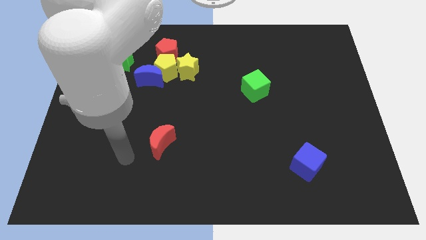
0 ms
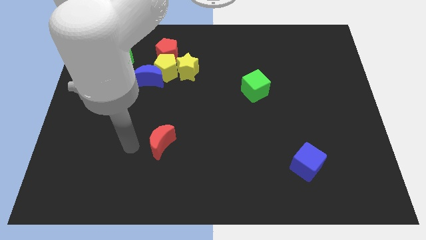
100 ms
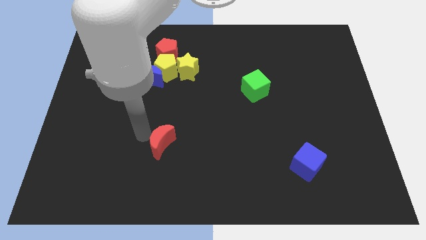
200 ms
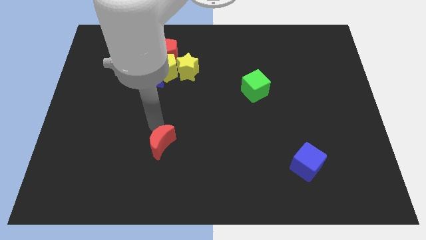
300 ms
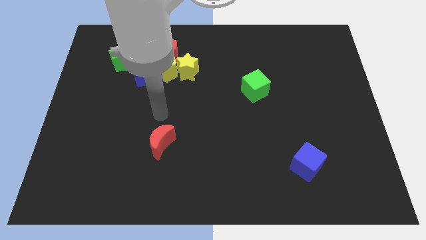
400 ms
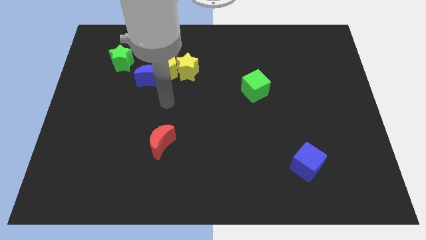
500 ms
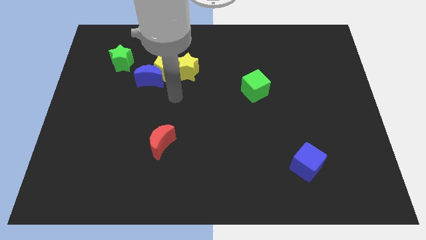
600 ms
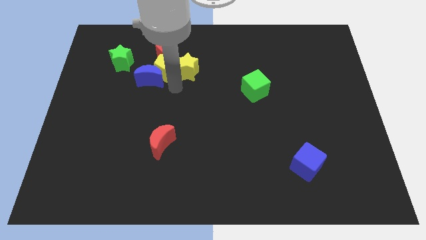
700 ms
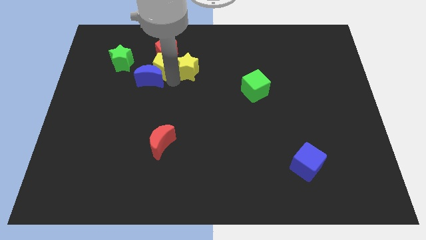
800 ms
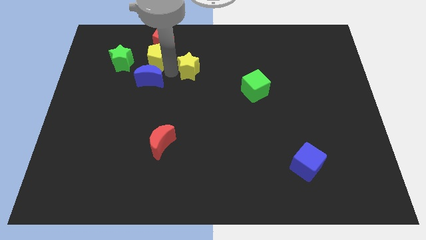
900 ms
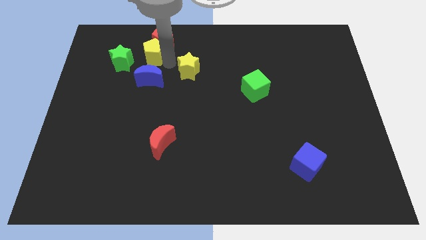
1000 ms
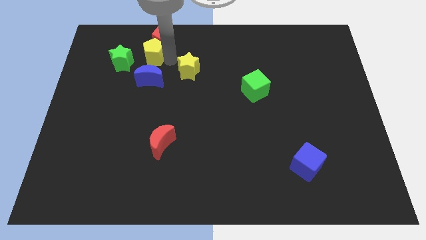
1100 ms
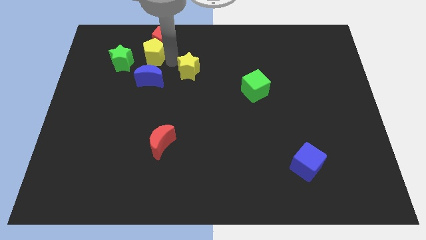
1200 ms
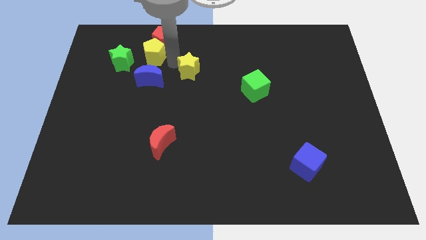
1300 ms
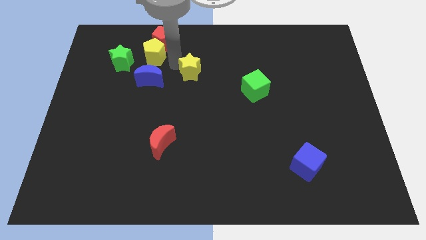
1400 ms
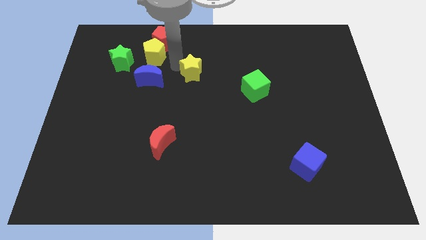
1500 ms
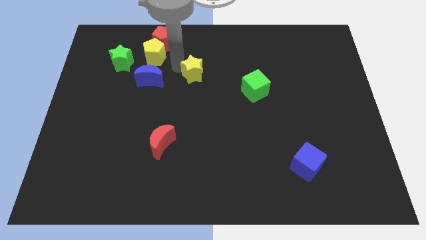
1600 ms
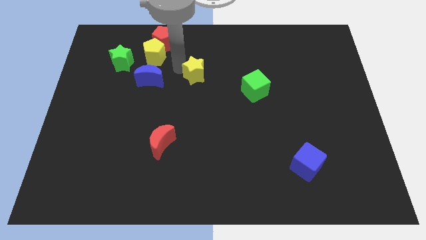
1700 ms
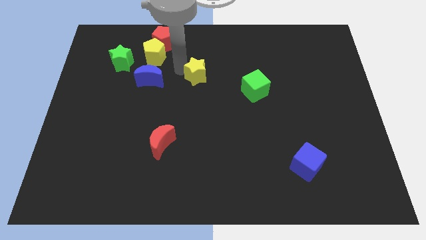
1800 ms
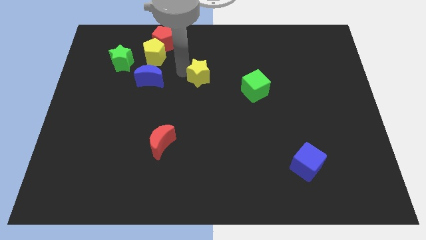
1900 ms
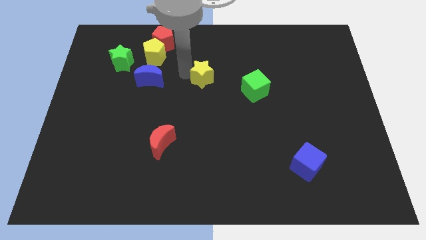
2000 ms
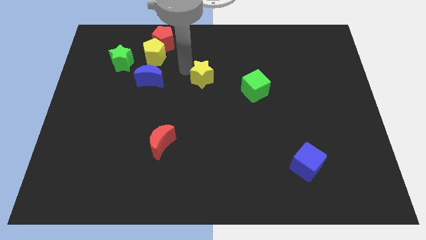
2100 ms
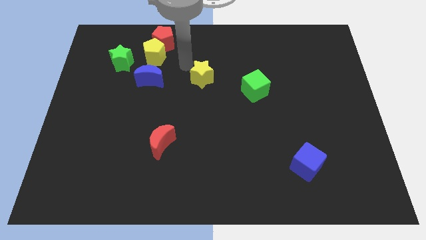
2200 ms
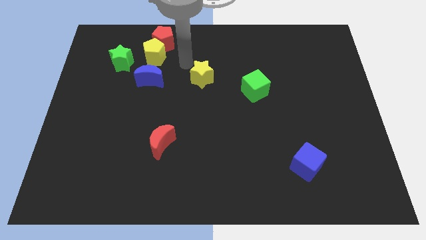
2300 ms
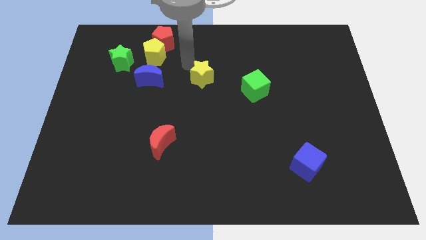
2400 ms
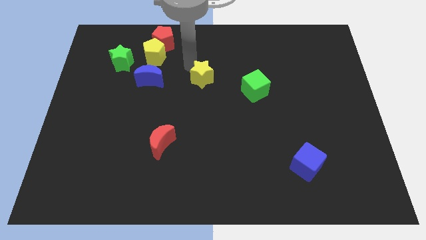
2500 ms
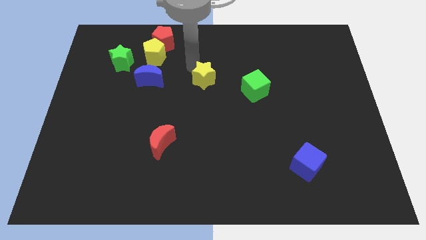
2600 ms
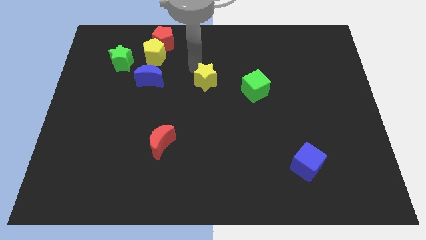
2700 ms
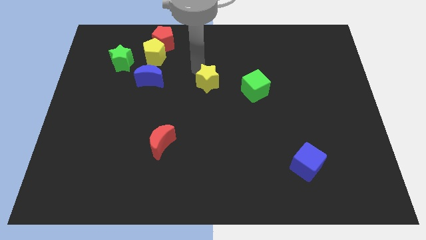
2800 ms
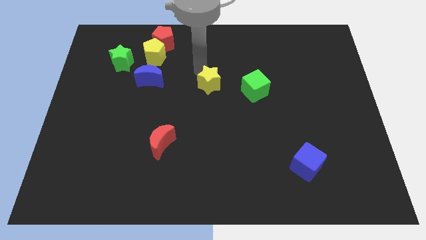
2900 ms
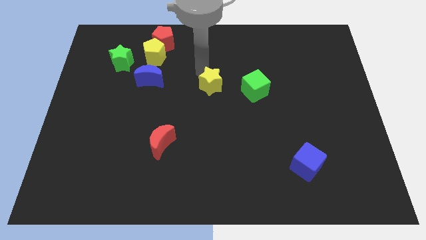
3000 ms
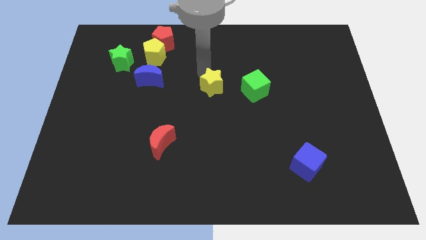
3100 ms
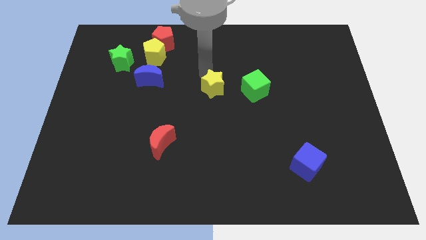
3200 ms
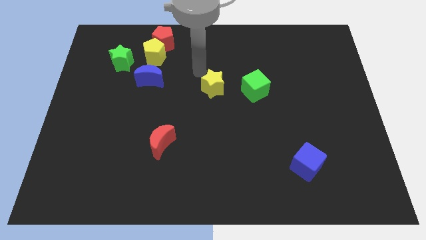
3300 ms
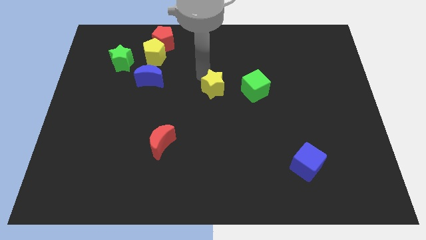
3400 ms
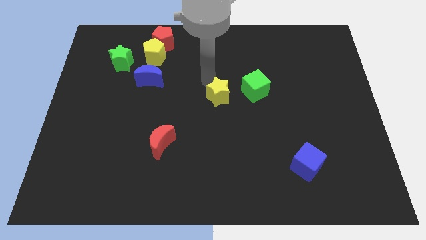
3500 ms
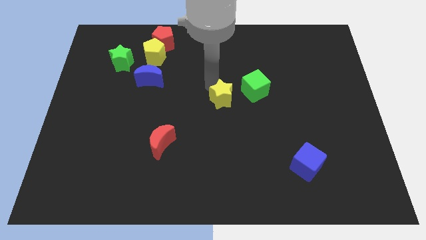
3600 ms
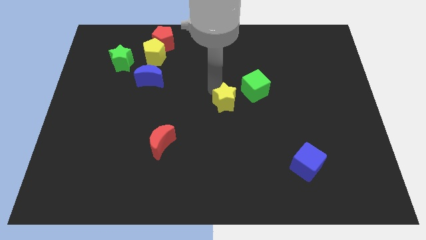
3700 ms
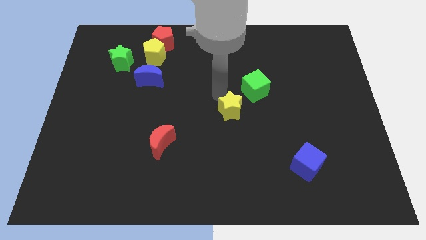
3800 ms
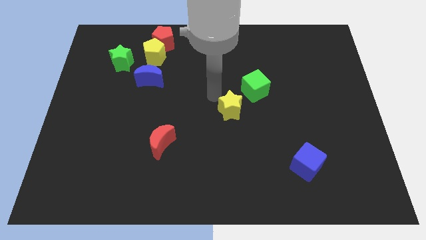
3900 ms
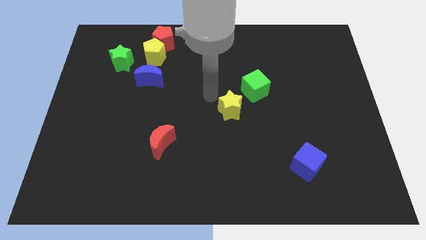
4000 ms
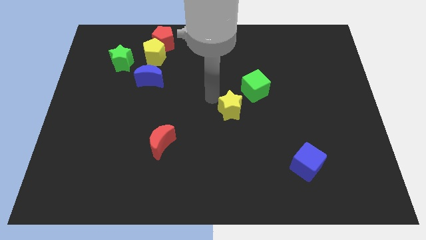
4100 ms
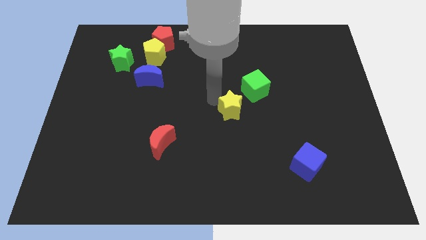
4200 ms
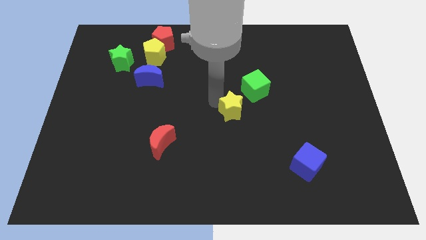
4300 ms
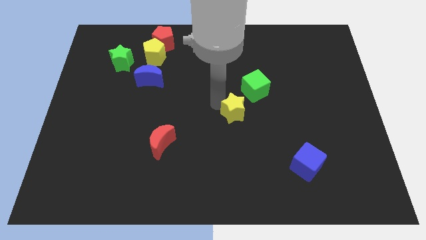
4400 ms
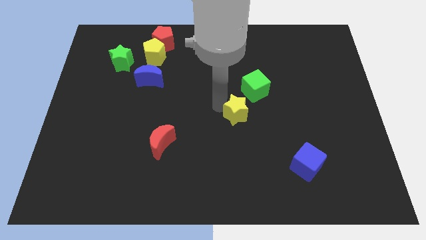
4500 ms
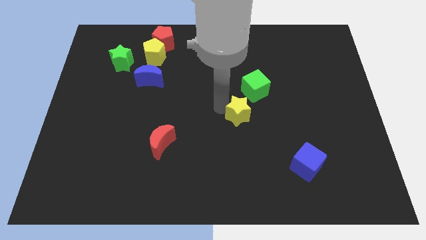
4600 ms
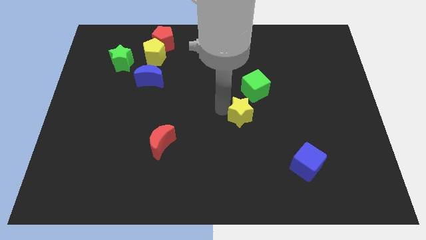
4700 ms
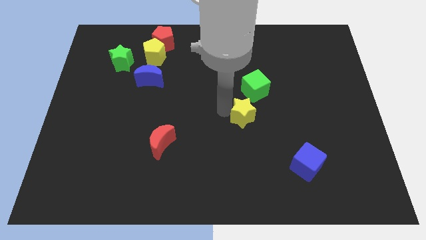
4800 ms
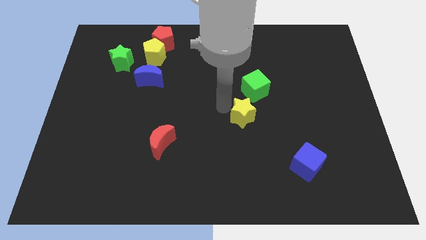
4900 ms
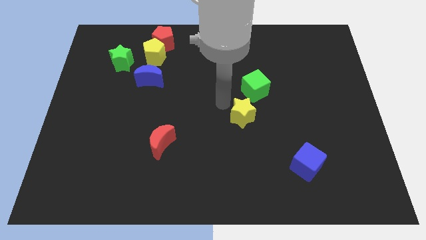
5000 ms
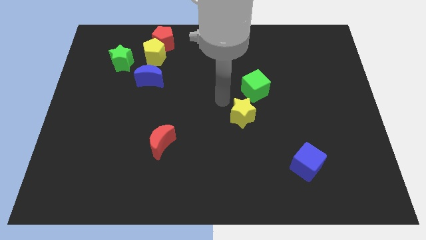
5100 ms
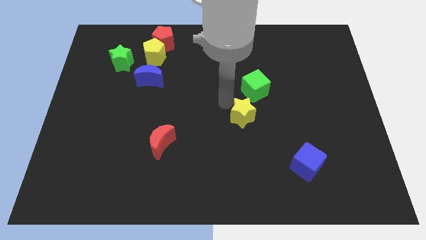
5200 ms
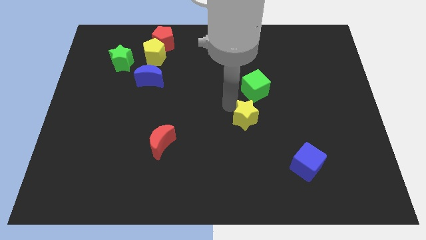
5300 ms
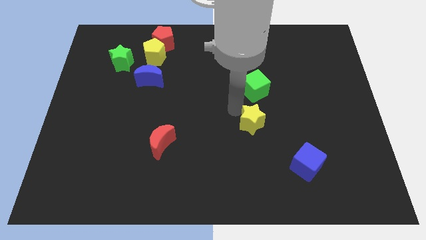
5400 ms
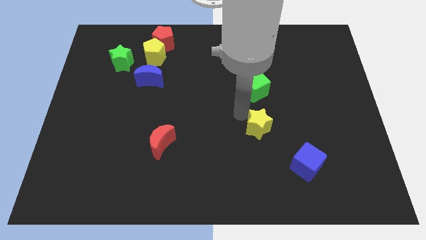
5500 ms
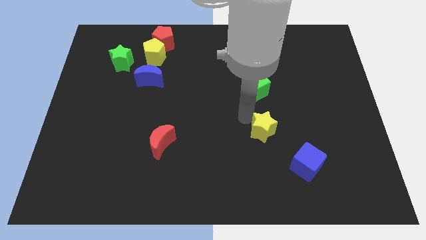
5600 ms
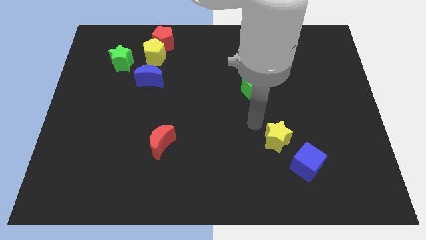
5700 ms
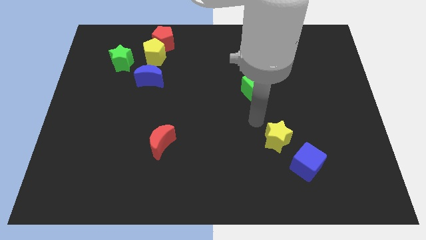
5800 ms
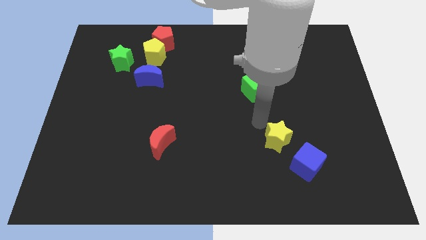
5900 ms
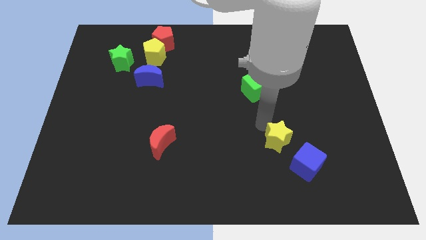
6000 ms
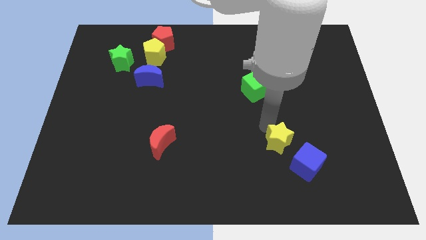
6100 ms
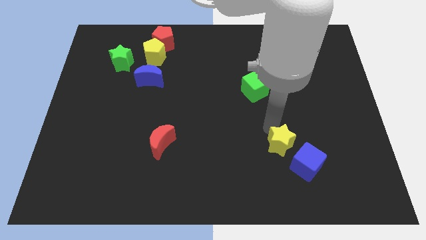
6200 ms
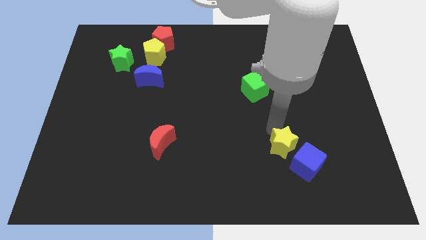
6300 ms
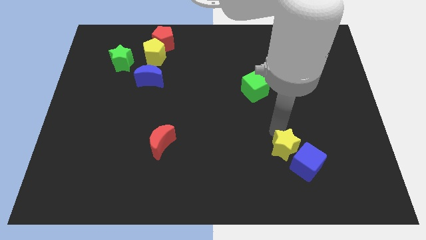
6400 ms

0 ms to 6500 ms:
slide the yellow star to the blue cube
